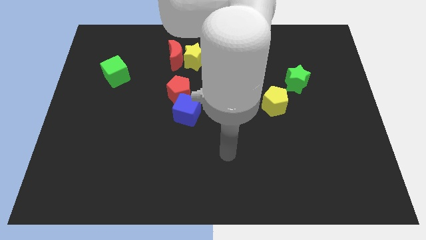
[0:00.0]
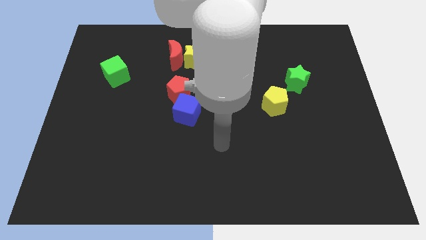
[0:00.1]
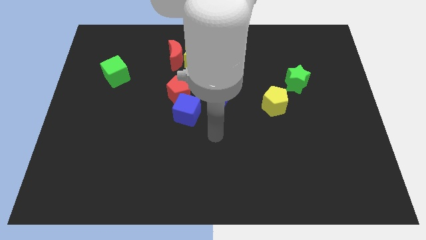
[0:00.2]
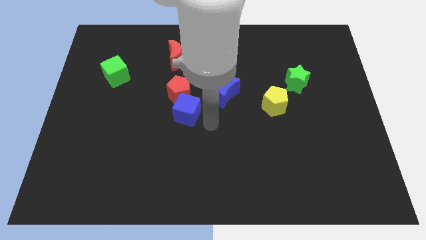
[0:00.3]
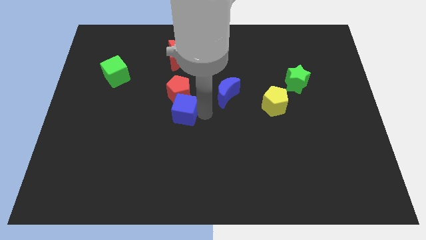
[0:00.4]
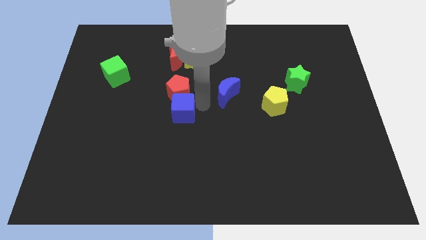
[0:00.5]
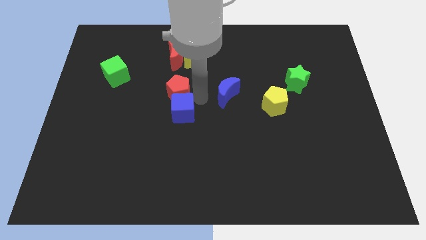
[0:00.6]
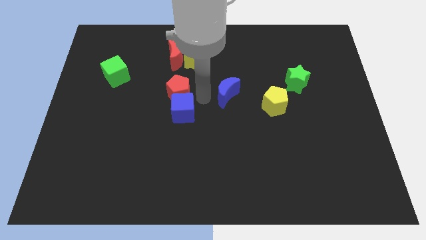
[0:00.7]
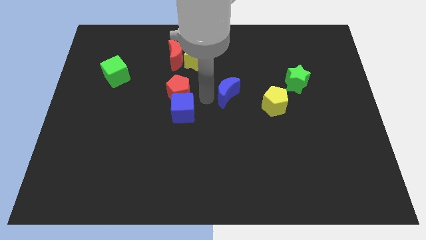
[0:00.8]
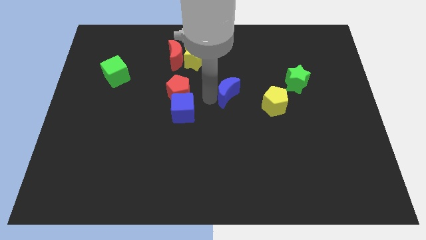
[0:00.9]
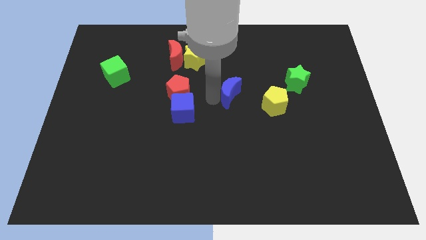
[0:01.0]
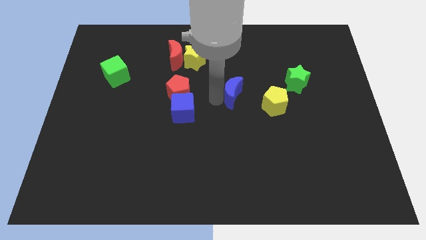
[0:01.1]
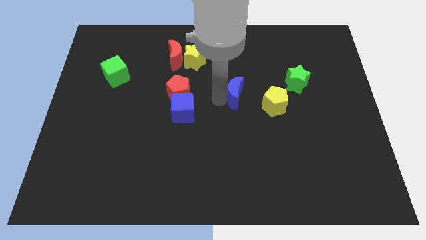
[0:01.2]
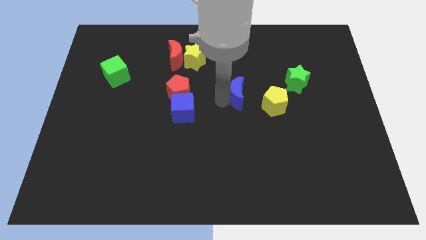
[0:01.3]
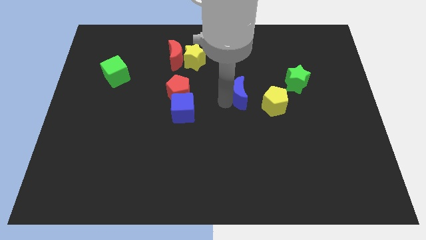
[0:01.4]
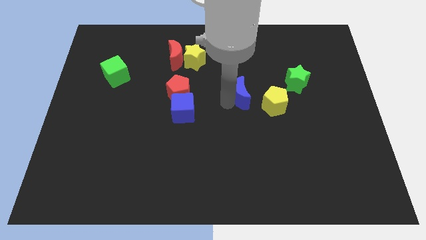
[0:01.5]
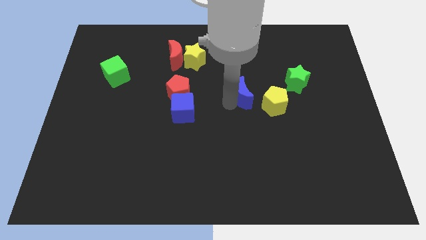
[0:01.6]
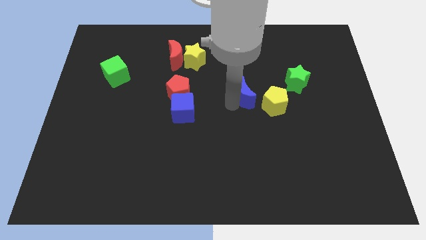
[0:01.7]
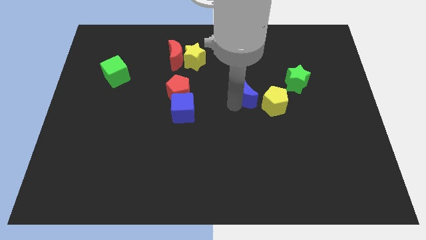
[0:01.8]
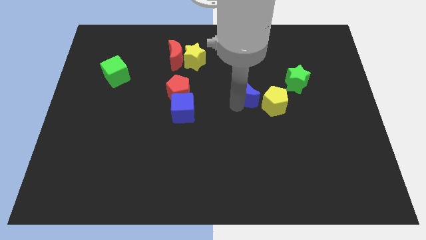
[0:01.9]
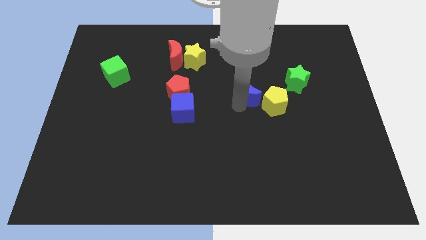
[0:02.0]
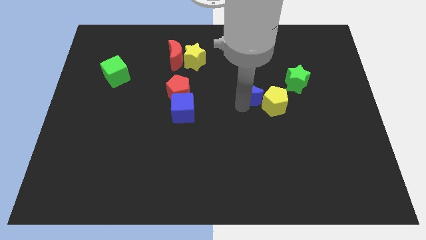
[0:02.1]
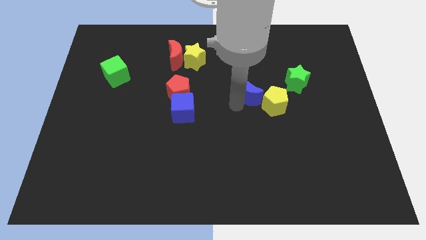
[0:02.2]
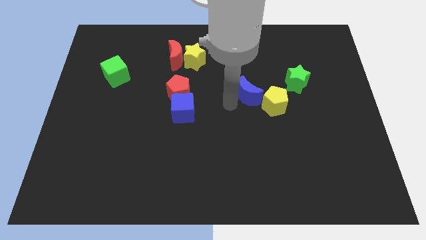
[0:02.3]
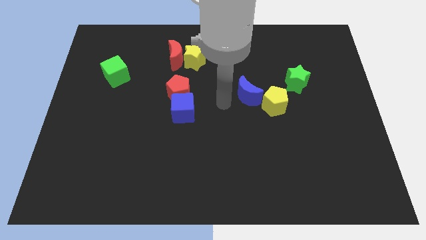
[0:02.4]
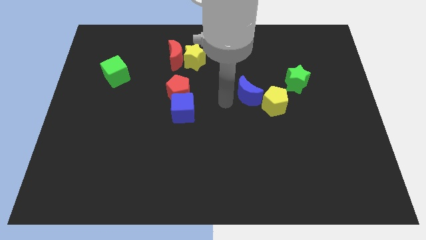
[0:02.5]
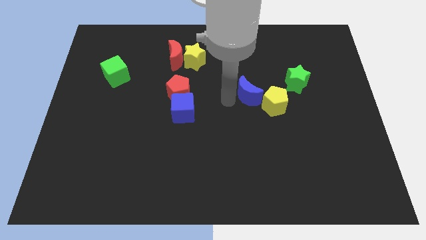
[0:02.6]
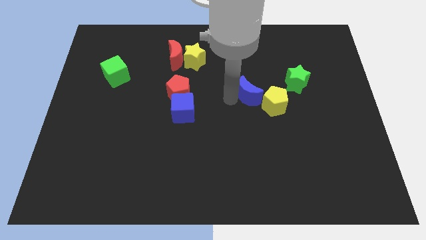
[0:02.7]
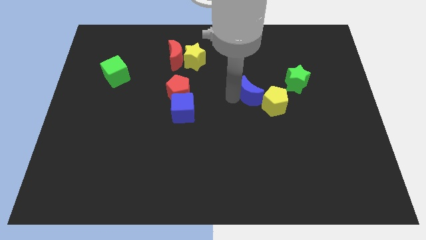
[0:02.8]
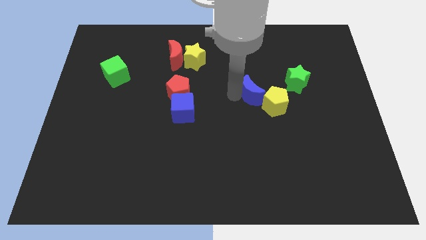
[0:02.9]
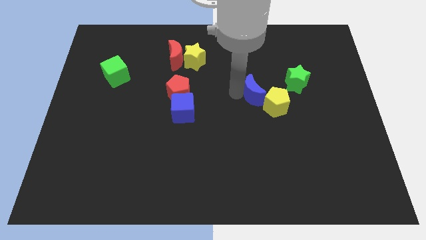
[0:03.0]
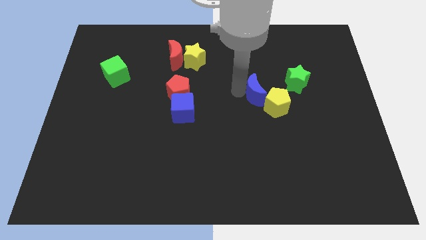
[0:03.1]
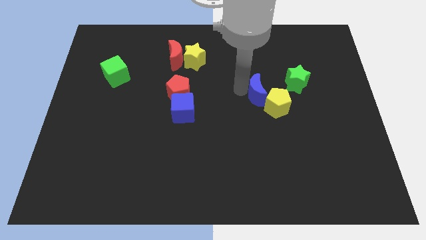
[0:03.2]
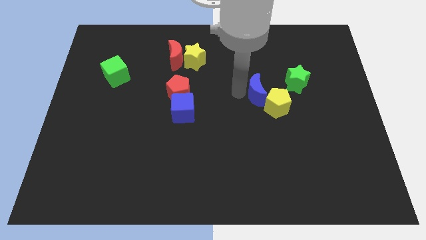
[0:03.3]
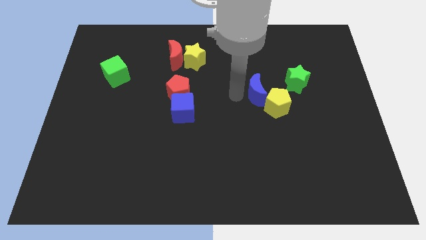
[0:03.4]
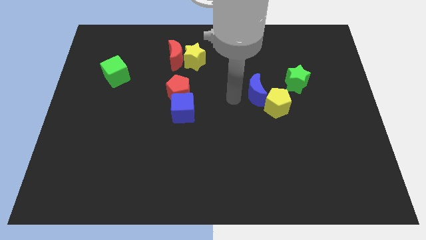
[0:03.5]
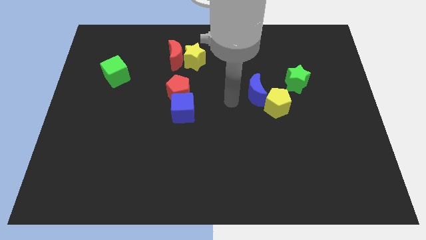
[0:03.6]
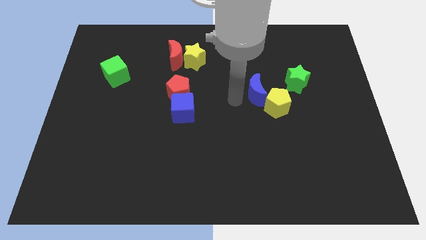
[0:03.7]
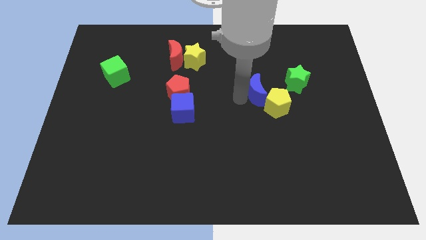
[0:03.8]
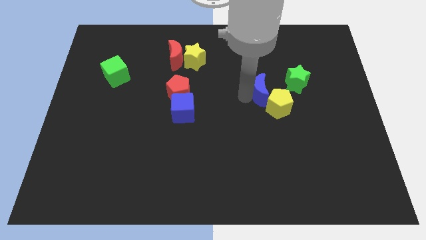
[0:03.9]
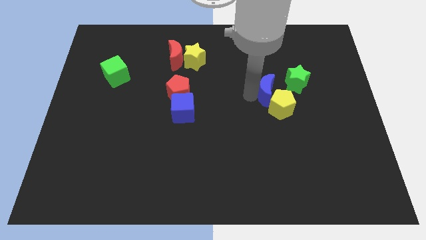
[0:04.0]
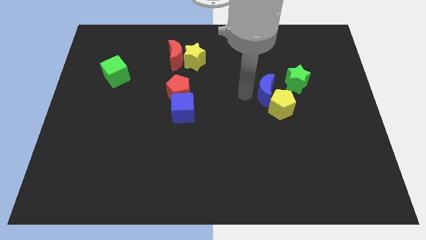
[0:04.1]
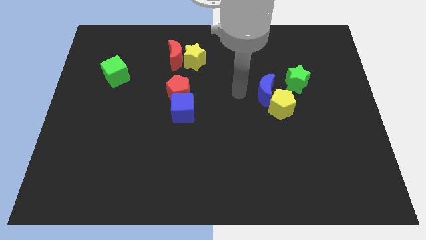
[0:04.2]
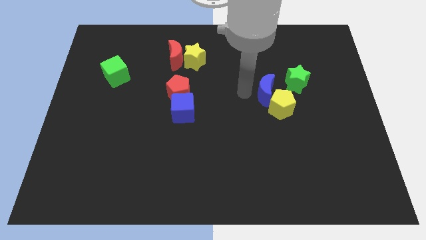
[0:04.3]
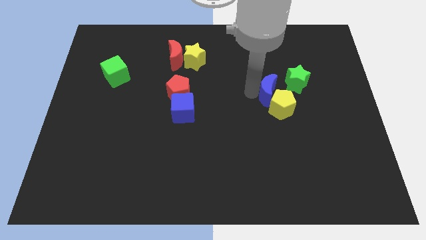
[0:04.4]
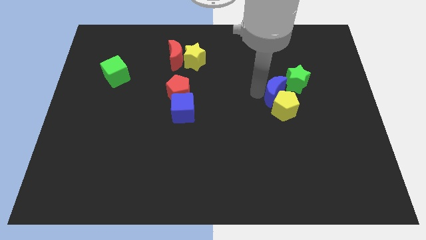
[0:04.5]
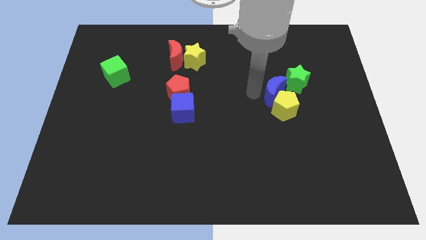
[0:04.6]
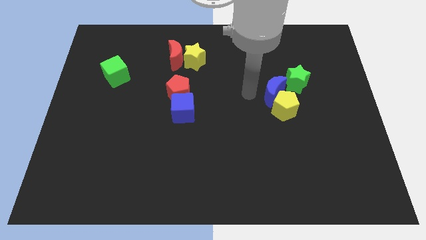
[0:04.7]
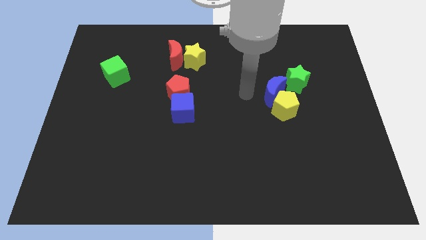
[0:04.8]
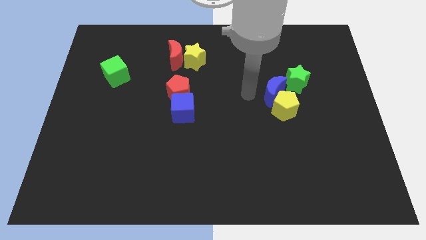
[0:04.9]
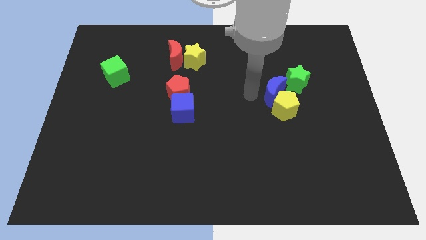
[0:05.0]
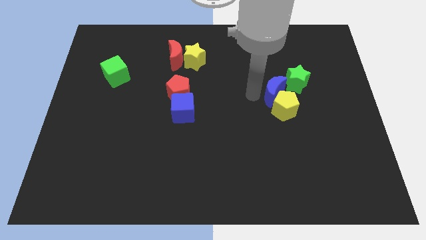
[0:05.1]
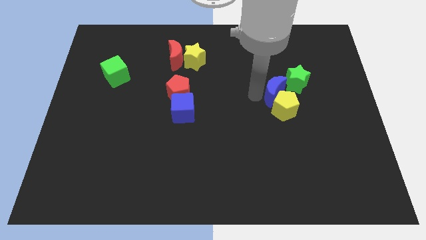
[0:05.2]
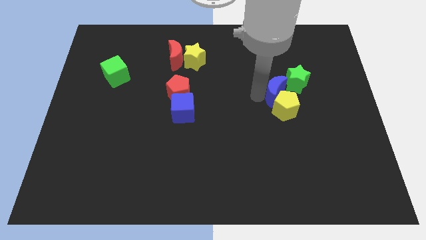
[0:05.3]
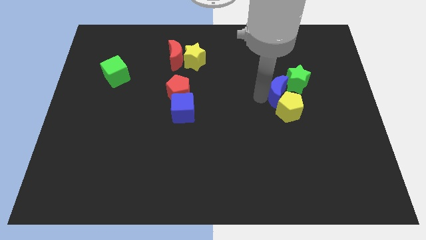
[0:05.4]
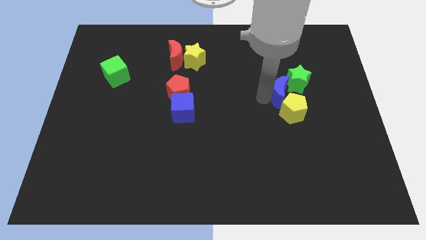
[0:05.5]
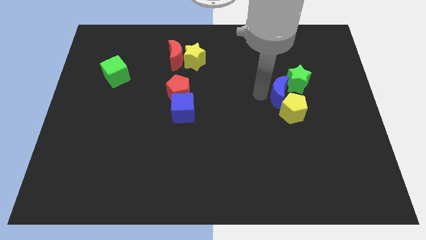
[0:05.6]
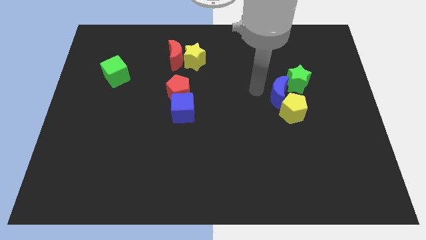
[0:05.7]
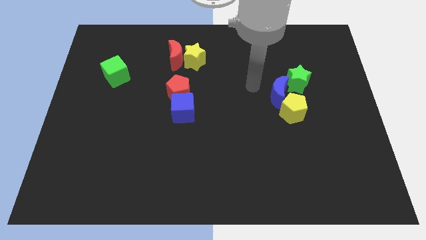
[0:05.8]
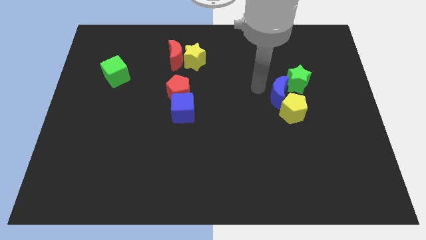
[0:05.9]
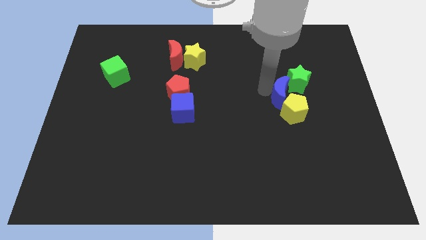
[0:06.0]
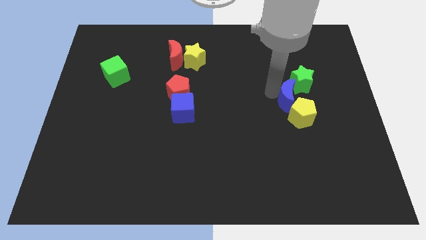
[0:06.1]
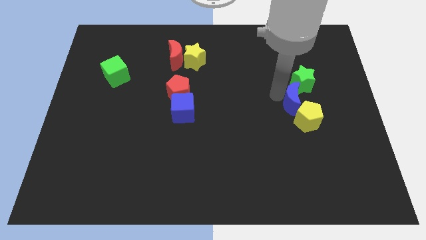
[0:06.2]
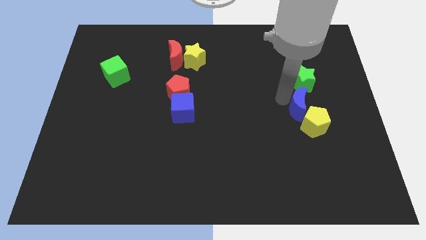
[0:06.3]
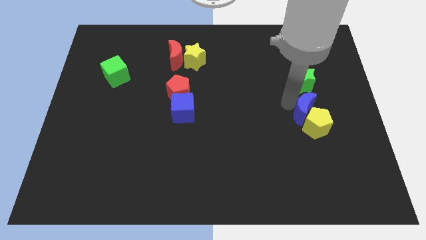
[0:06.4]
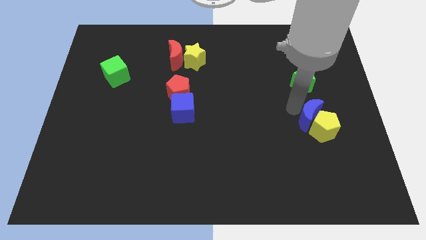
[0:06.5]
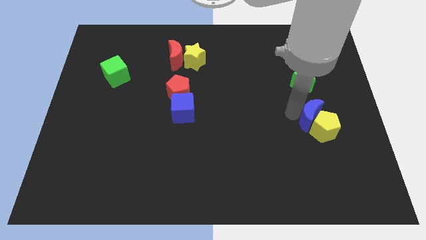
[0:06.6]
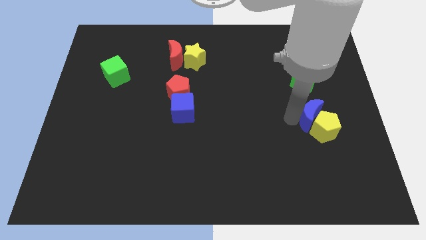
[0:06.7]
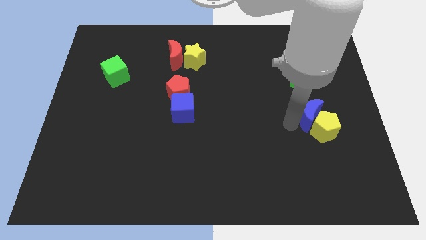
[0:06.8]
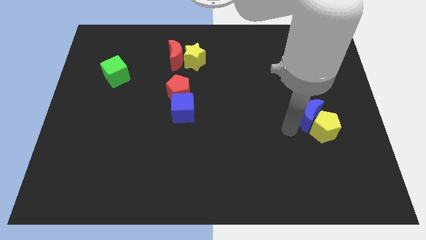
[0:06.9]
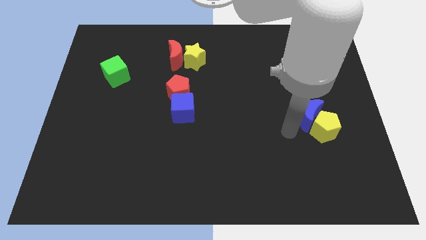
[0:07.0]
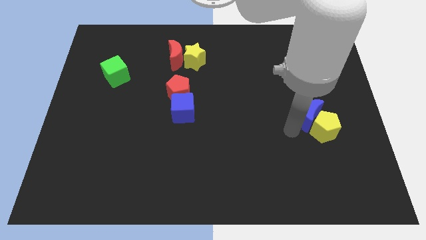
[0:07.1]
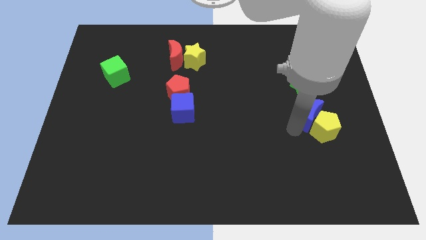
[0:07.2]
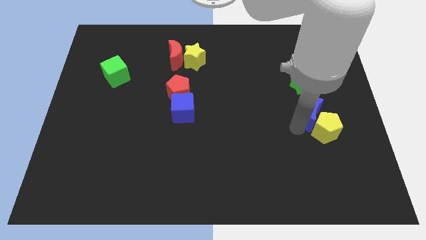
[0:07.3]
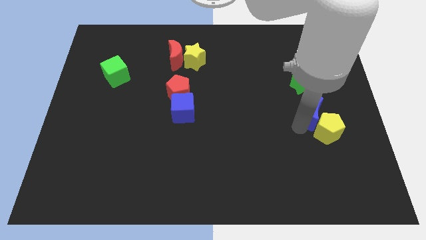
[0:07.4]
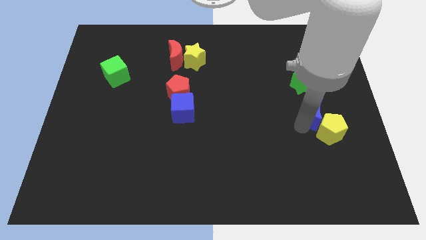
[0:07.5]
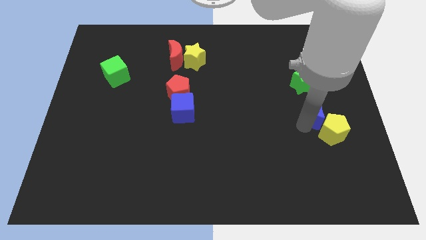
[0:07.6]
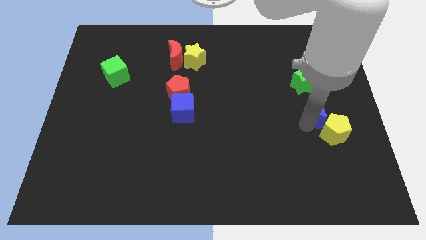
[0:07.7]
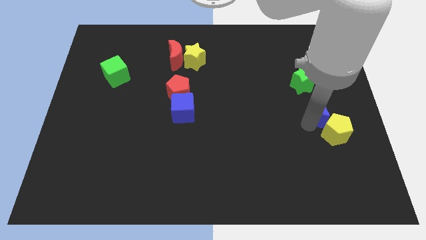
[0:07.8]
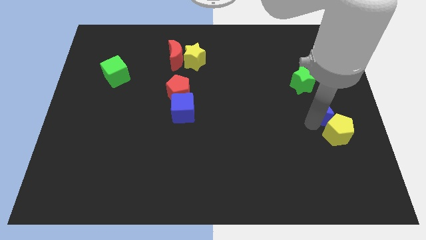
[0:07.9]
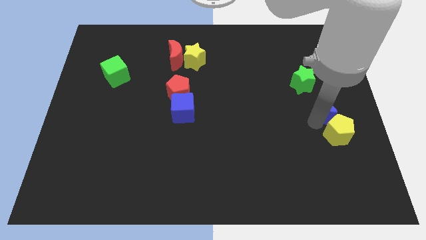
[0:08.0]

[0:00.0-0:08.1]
slide the blue moon to the right side
